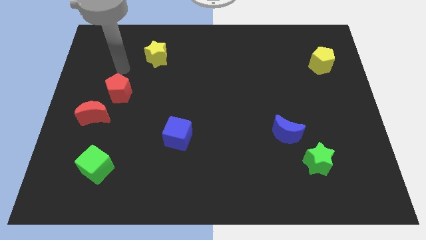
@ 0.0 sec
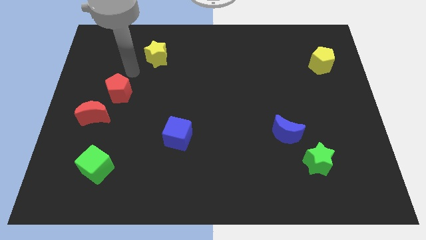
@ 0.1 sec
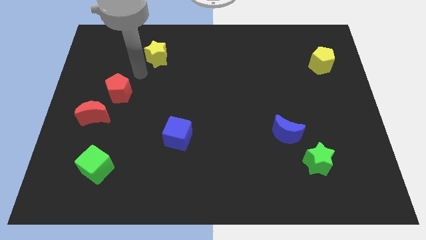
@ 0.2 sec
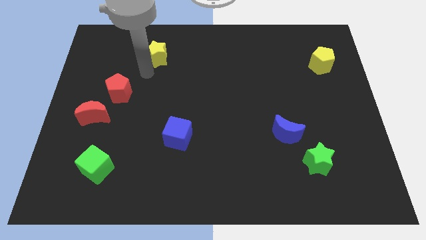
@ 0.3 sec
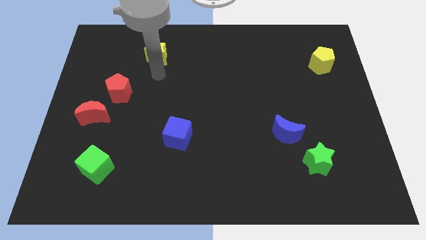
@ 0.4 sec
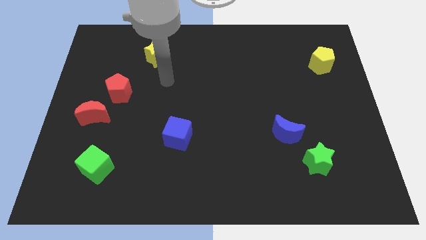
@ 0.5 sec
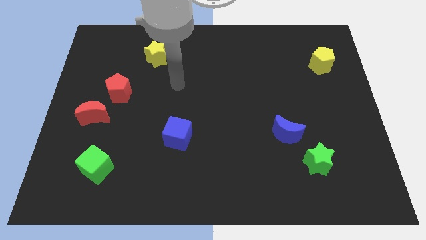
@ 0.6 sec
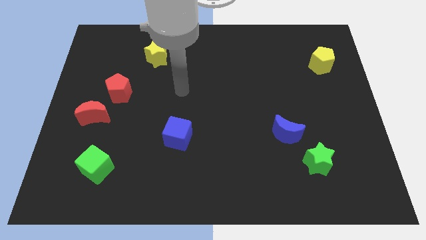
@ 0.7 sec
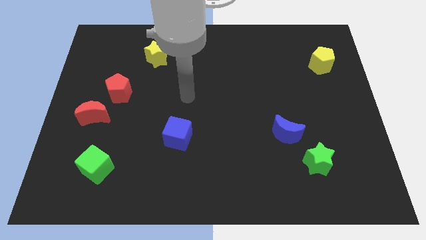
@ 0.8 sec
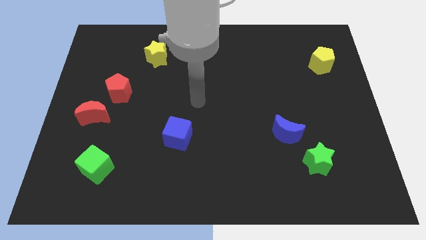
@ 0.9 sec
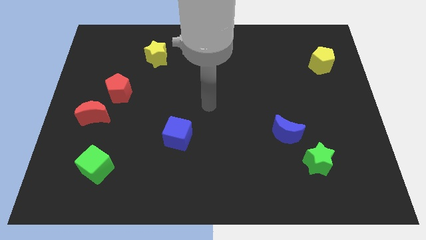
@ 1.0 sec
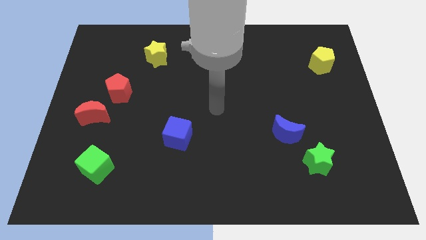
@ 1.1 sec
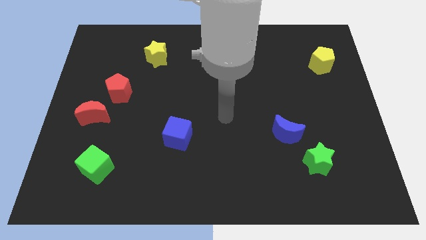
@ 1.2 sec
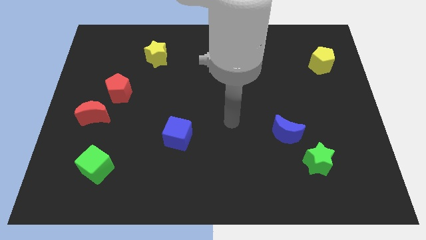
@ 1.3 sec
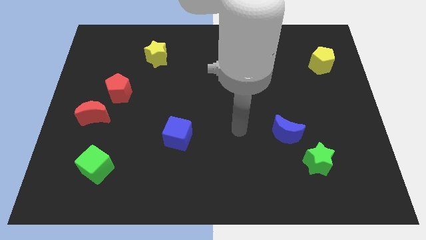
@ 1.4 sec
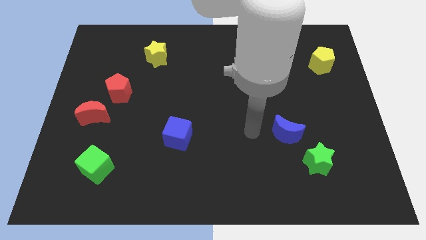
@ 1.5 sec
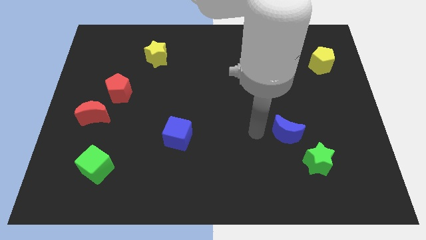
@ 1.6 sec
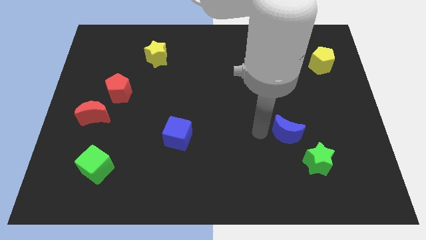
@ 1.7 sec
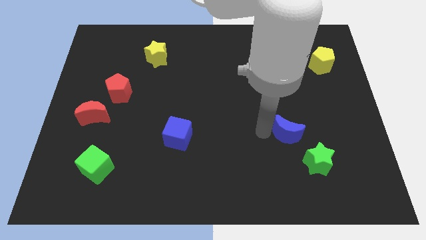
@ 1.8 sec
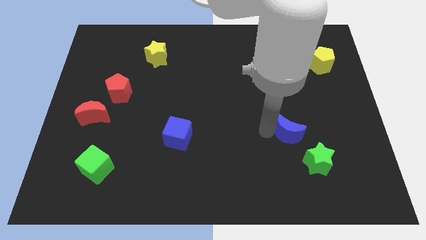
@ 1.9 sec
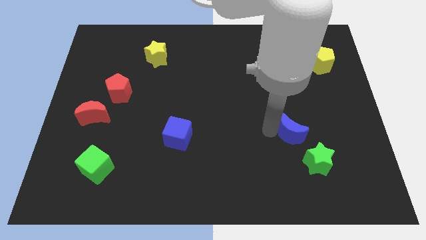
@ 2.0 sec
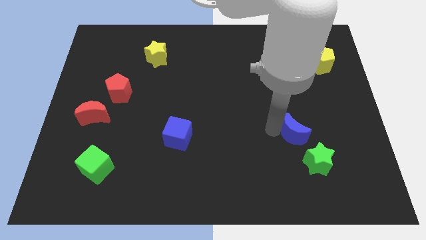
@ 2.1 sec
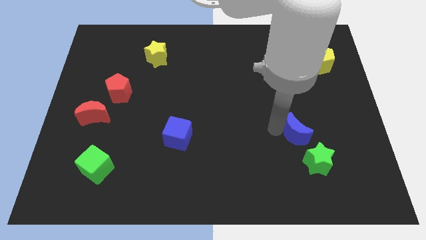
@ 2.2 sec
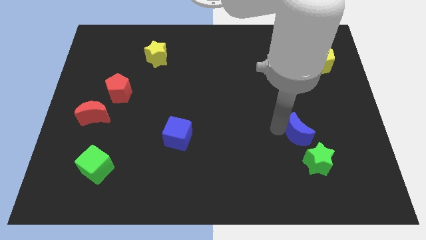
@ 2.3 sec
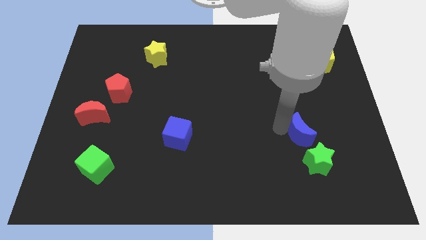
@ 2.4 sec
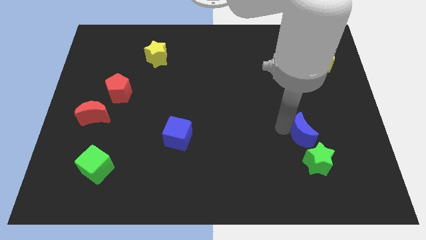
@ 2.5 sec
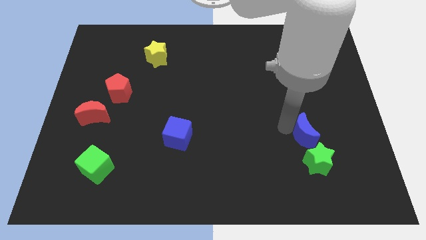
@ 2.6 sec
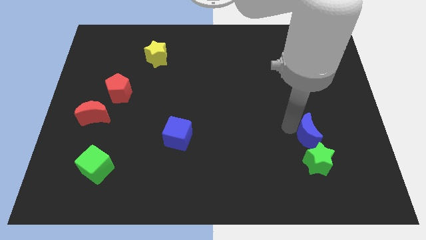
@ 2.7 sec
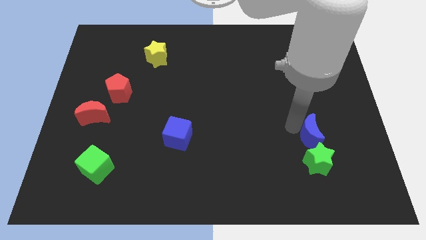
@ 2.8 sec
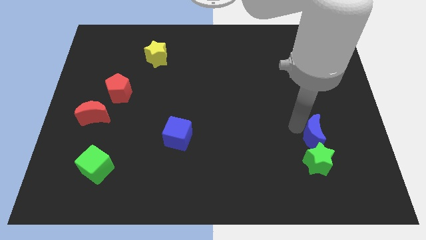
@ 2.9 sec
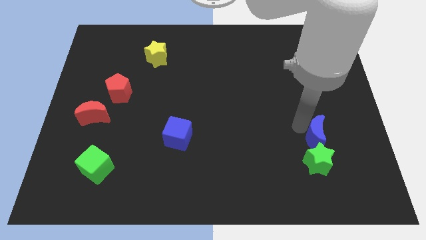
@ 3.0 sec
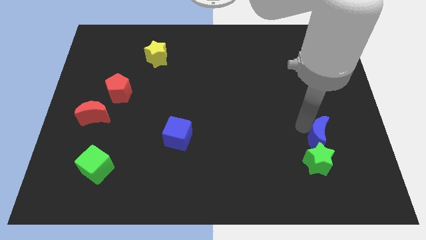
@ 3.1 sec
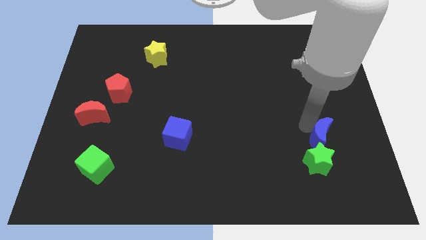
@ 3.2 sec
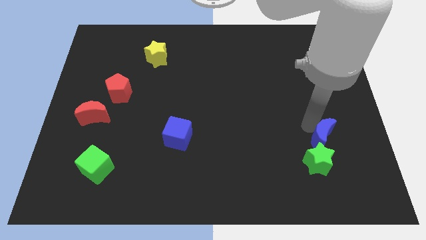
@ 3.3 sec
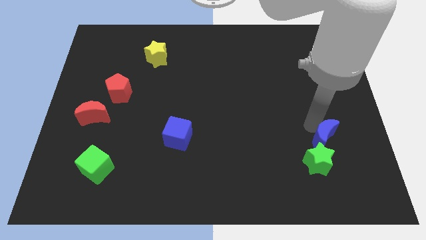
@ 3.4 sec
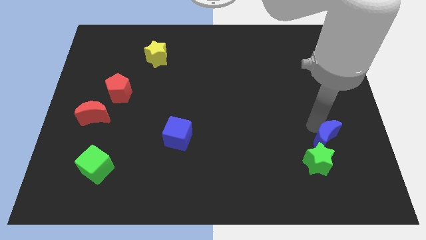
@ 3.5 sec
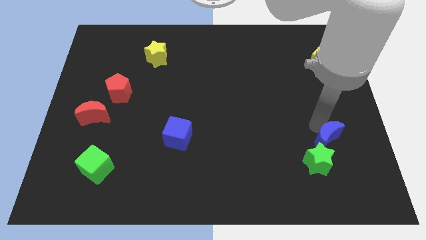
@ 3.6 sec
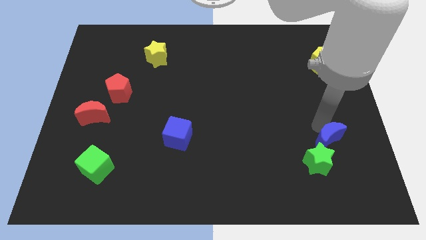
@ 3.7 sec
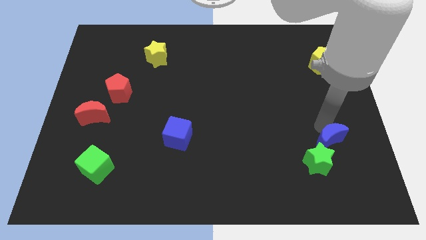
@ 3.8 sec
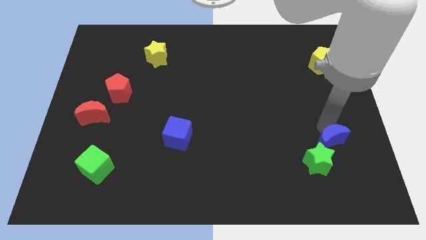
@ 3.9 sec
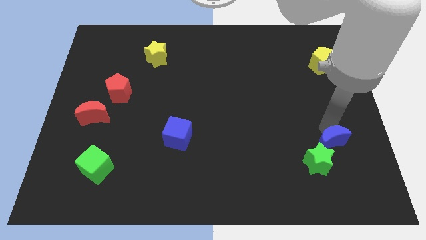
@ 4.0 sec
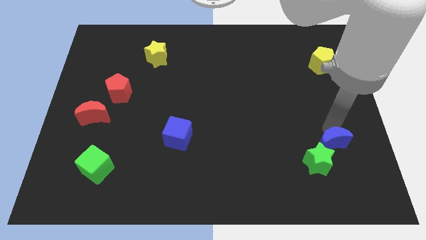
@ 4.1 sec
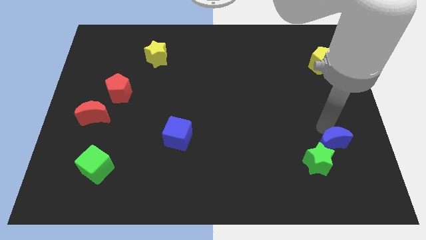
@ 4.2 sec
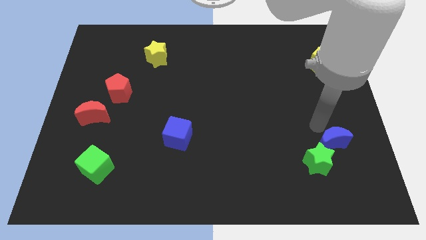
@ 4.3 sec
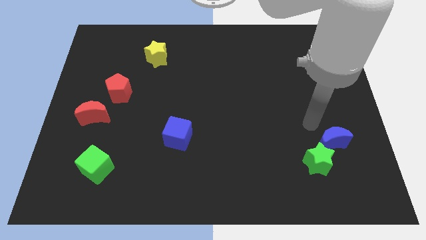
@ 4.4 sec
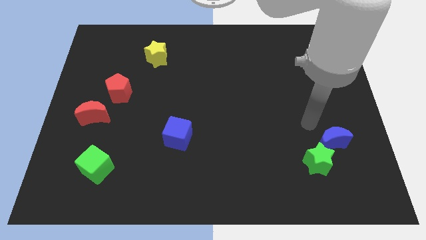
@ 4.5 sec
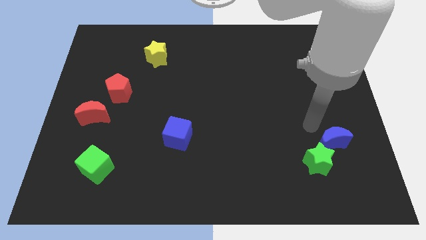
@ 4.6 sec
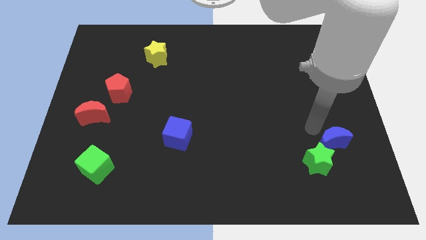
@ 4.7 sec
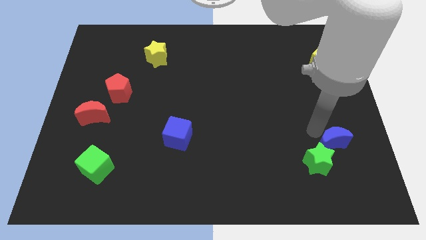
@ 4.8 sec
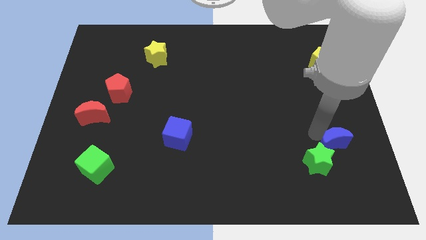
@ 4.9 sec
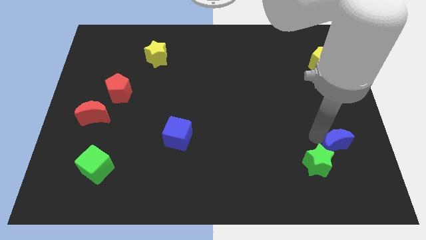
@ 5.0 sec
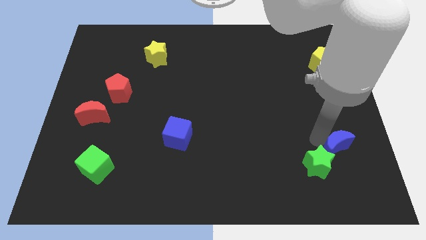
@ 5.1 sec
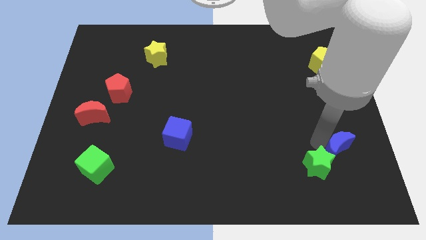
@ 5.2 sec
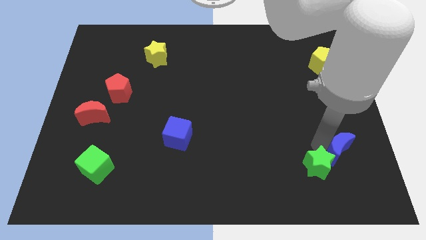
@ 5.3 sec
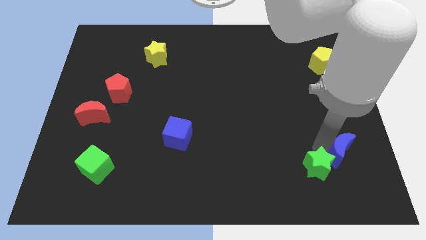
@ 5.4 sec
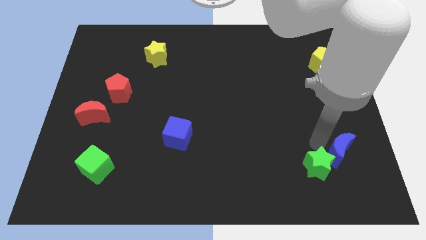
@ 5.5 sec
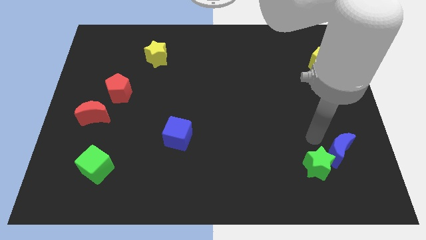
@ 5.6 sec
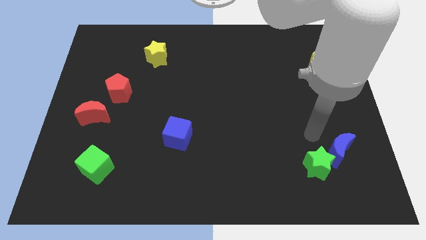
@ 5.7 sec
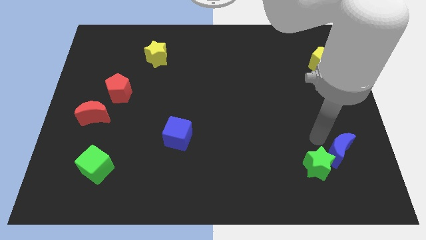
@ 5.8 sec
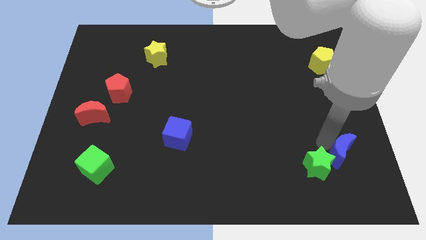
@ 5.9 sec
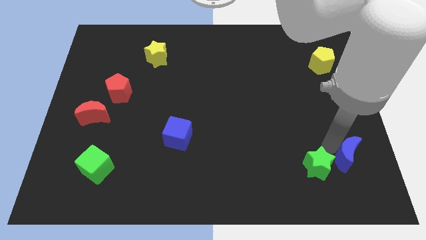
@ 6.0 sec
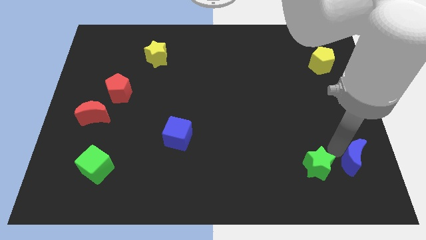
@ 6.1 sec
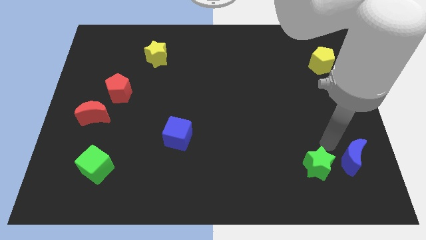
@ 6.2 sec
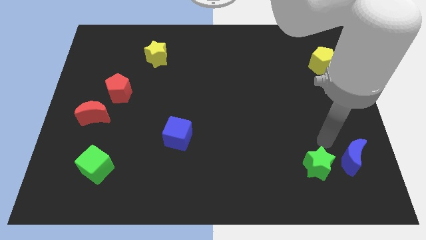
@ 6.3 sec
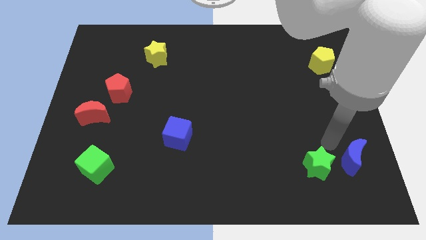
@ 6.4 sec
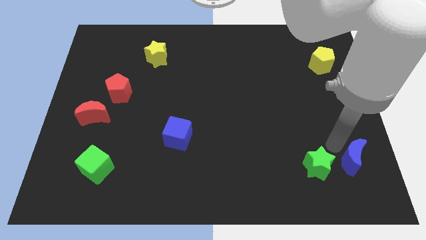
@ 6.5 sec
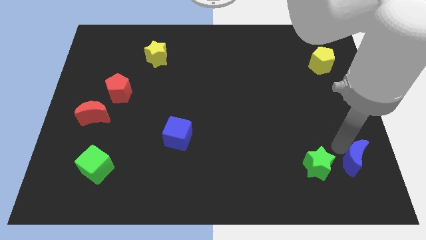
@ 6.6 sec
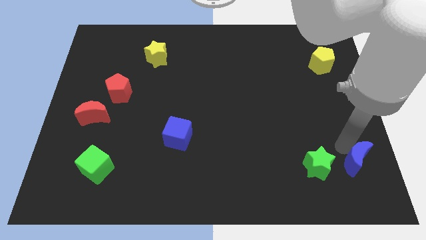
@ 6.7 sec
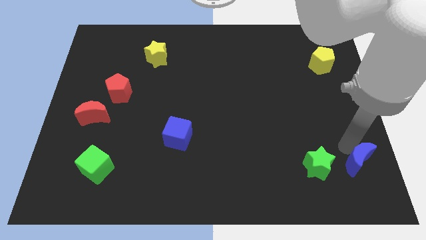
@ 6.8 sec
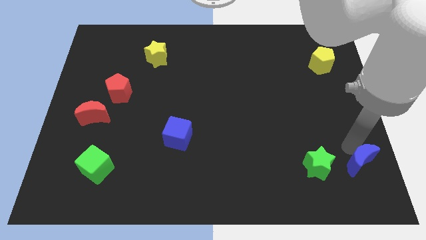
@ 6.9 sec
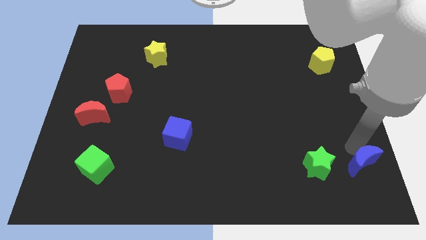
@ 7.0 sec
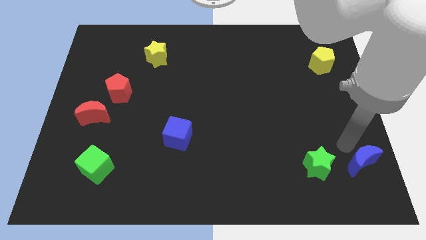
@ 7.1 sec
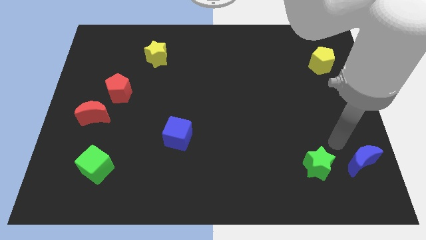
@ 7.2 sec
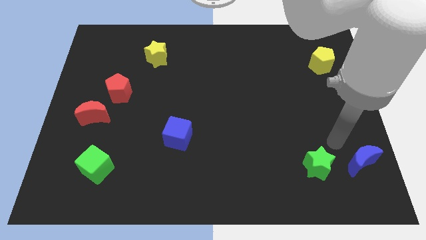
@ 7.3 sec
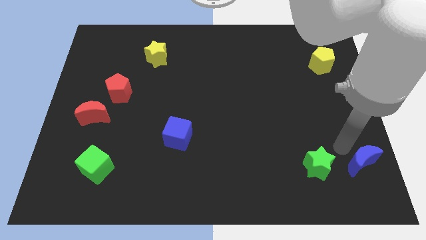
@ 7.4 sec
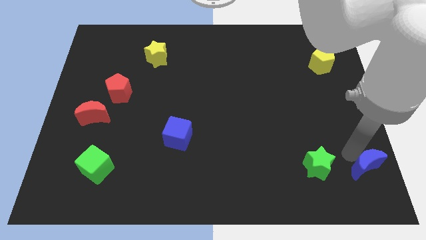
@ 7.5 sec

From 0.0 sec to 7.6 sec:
put the blue moon to the bottom right corner
